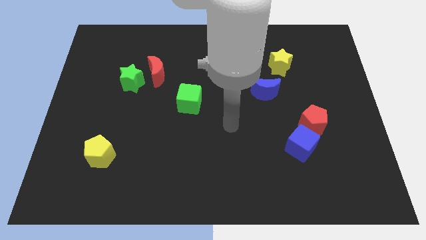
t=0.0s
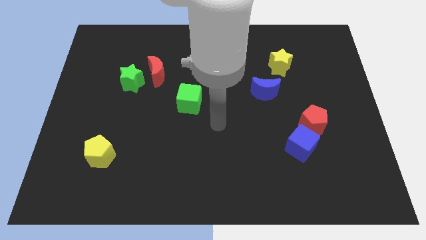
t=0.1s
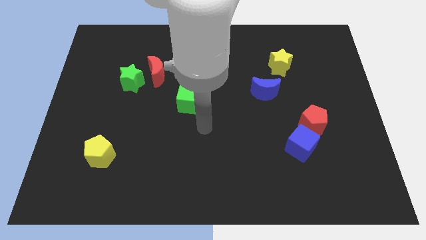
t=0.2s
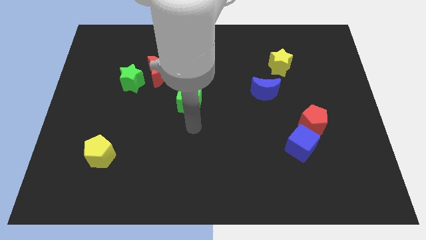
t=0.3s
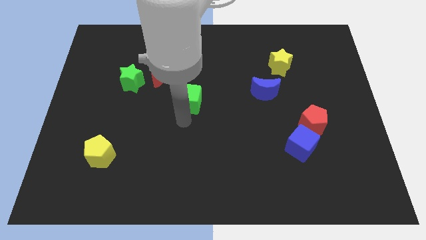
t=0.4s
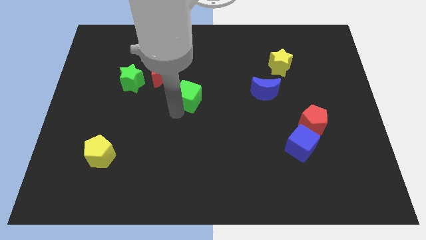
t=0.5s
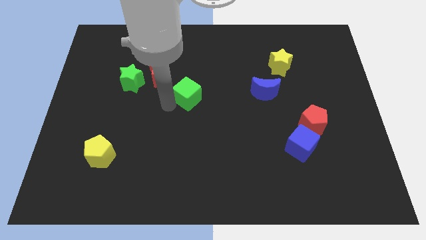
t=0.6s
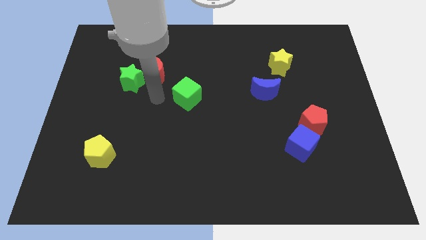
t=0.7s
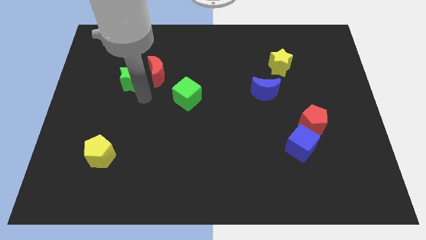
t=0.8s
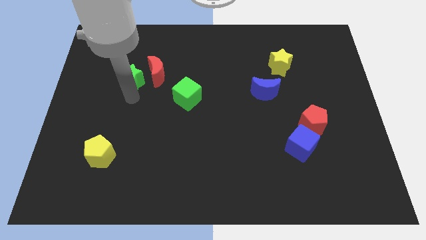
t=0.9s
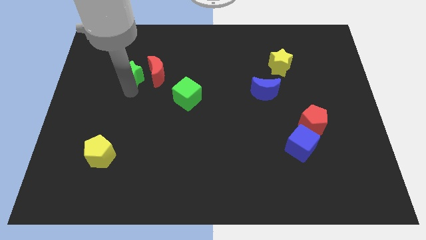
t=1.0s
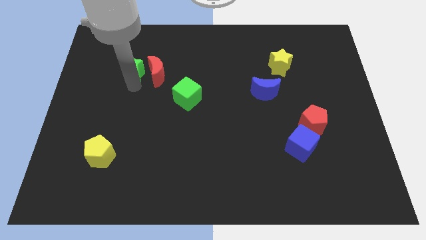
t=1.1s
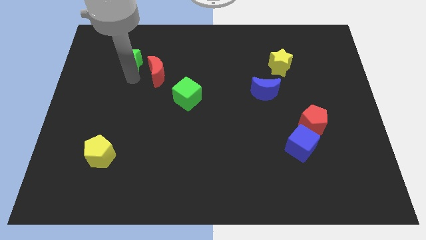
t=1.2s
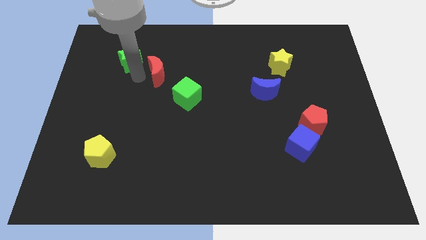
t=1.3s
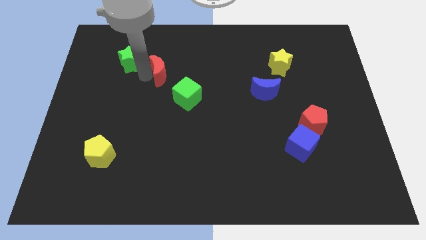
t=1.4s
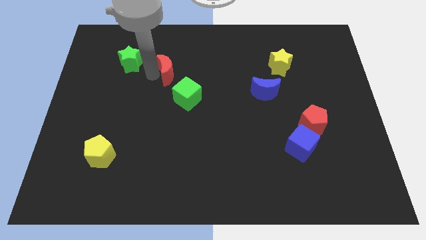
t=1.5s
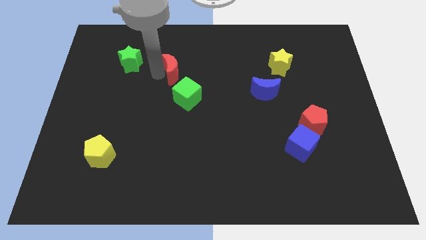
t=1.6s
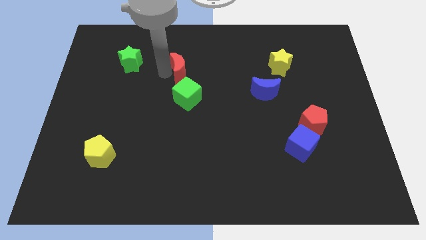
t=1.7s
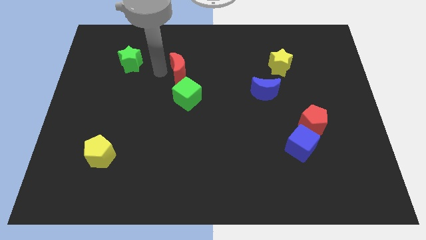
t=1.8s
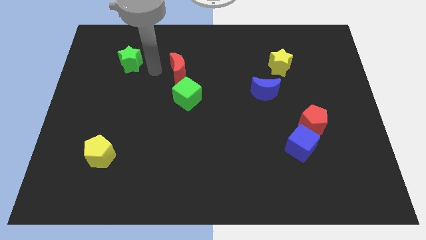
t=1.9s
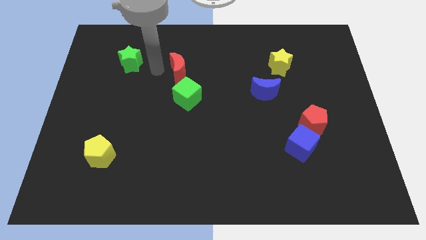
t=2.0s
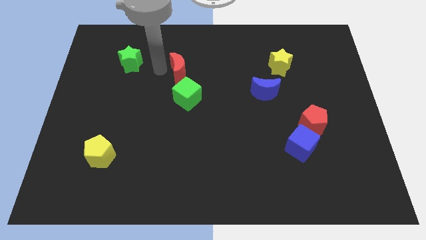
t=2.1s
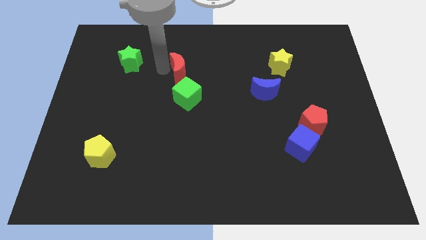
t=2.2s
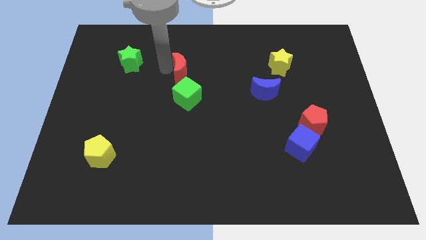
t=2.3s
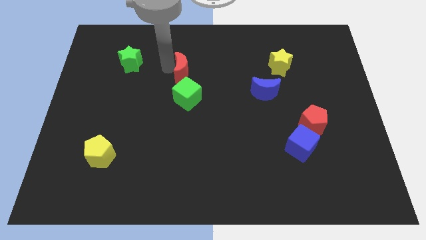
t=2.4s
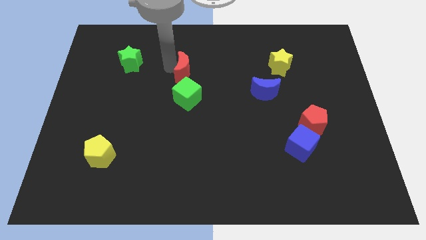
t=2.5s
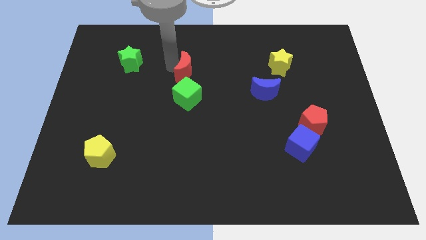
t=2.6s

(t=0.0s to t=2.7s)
slightly push the red moon to the right

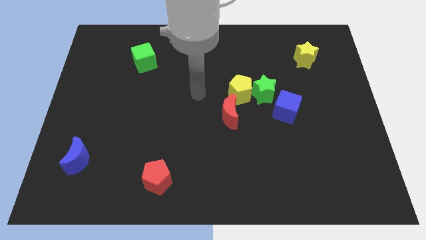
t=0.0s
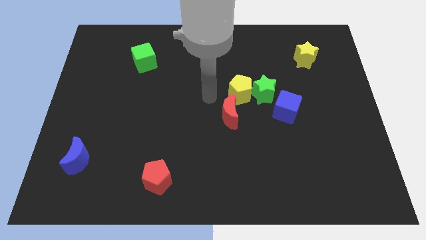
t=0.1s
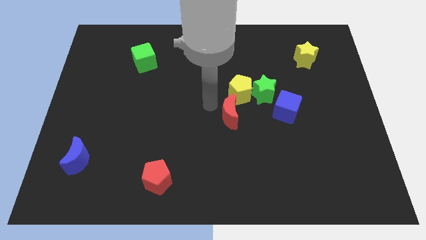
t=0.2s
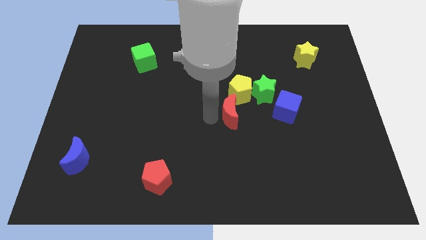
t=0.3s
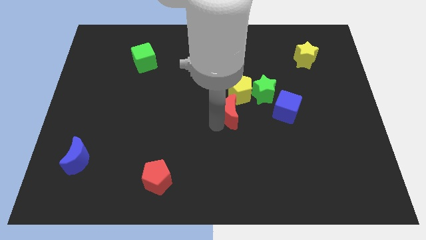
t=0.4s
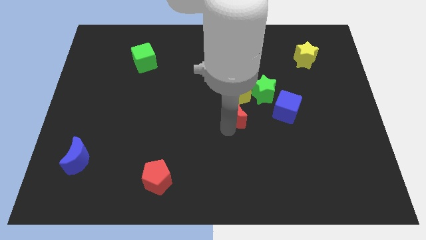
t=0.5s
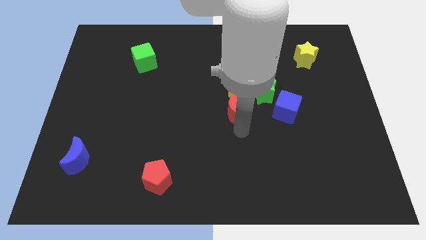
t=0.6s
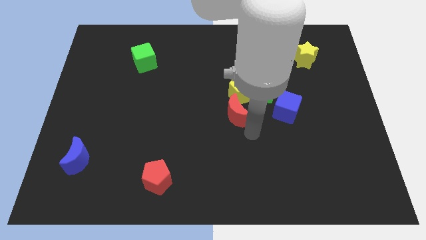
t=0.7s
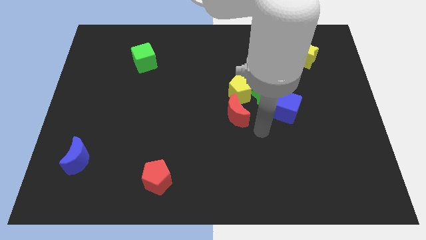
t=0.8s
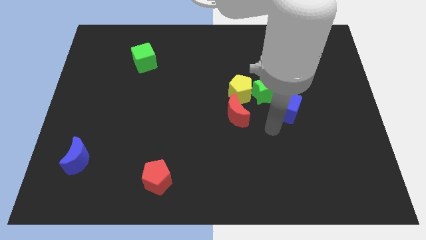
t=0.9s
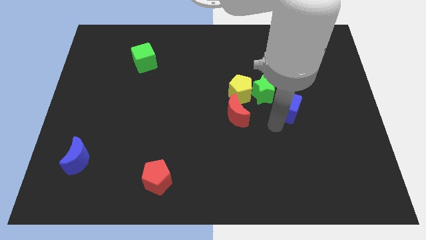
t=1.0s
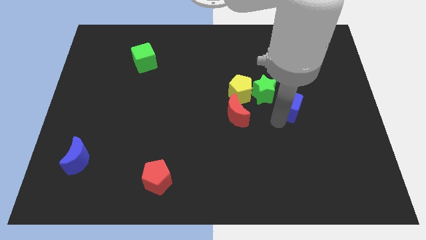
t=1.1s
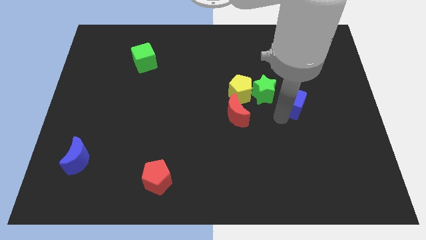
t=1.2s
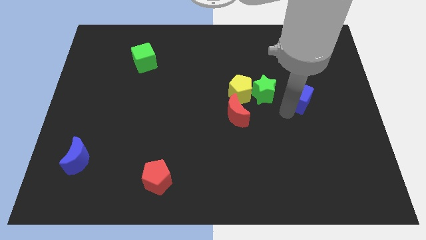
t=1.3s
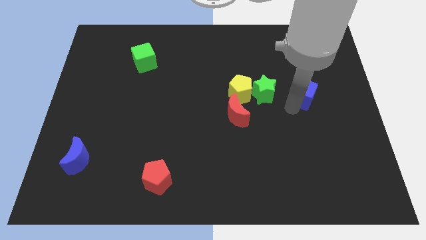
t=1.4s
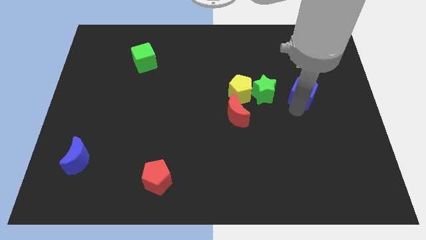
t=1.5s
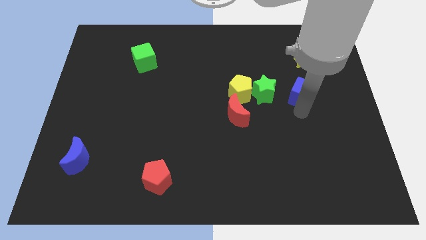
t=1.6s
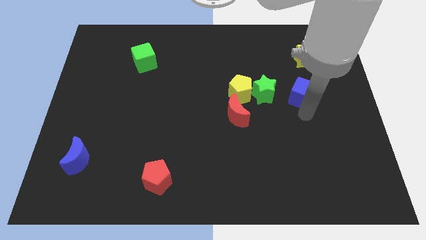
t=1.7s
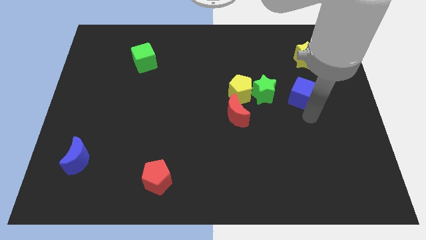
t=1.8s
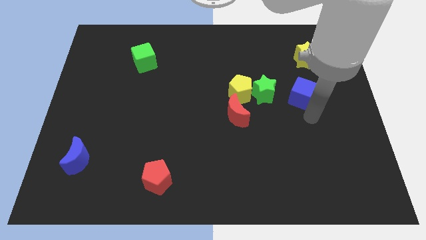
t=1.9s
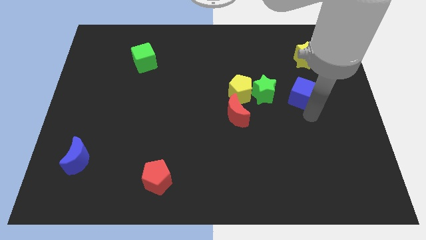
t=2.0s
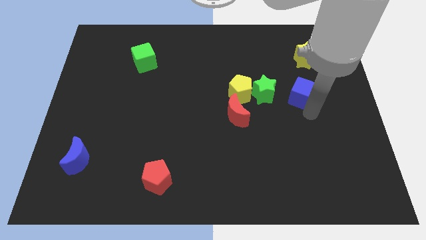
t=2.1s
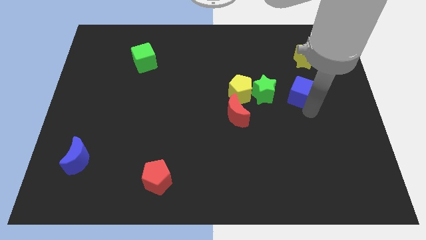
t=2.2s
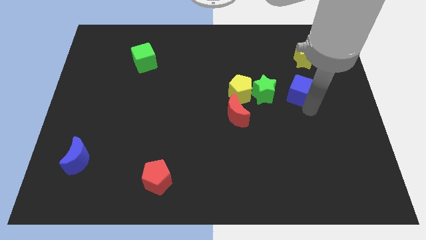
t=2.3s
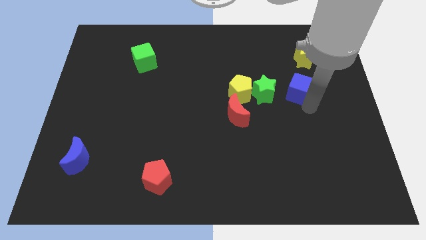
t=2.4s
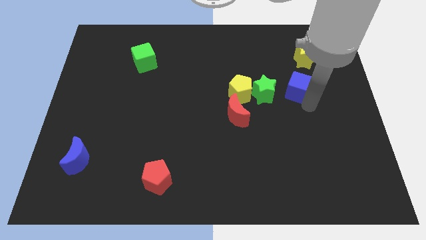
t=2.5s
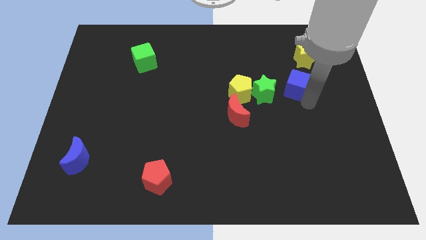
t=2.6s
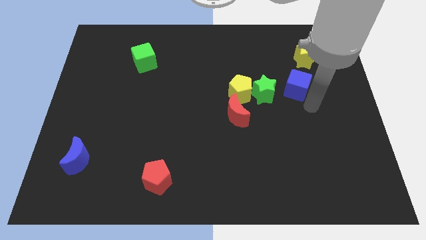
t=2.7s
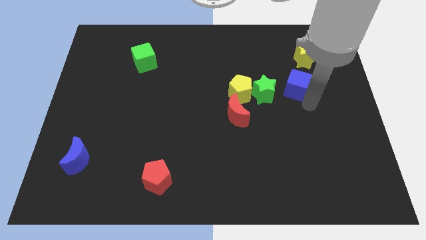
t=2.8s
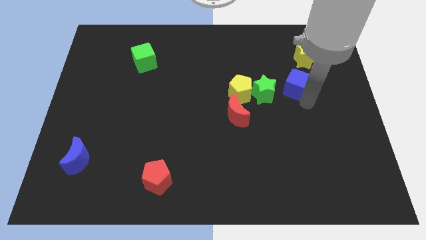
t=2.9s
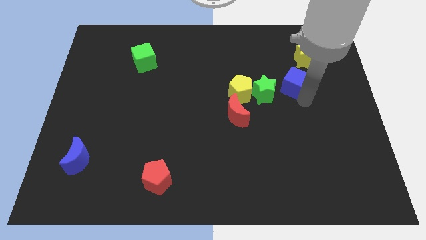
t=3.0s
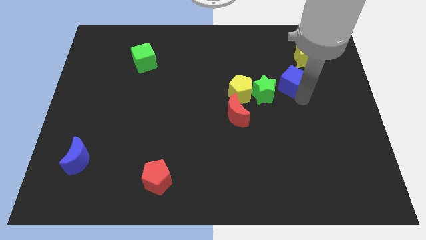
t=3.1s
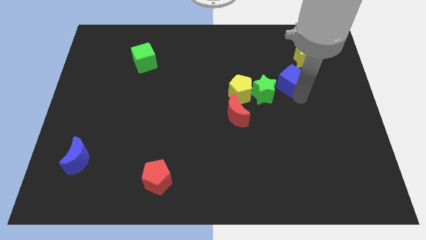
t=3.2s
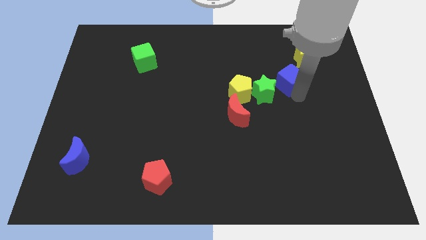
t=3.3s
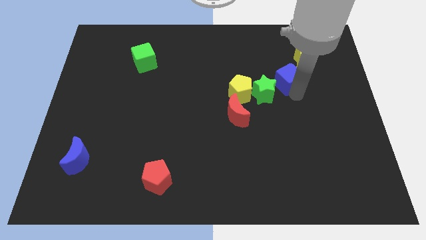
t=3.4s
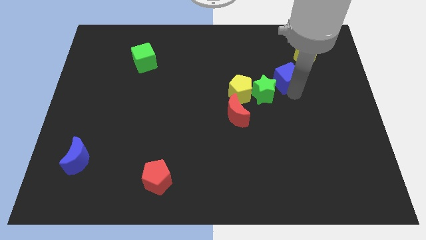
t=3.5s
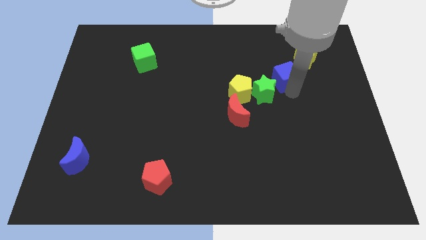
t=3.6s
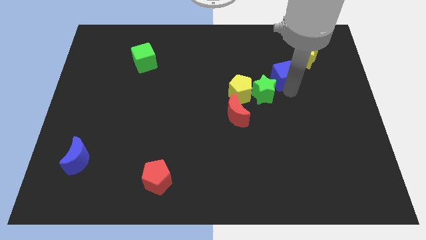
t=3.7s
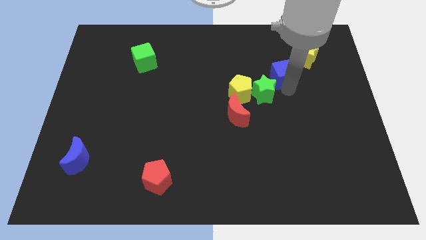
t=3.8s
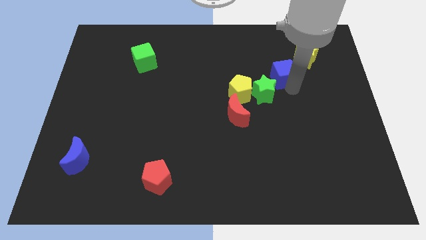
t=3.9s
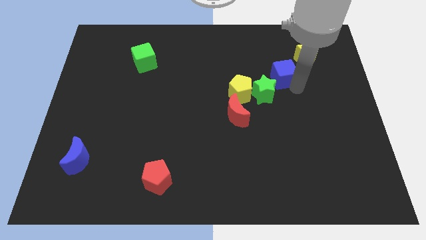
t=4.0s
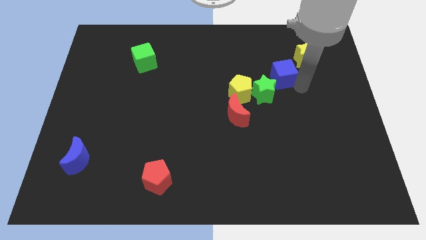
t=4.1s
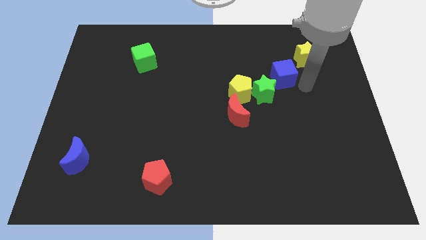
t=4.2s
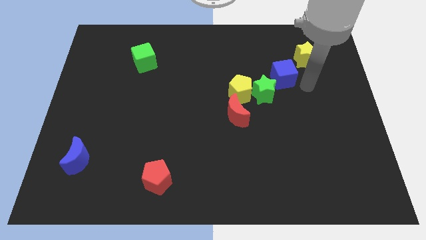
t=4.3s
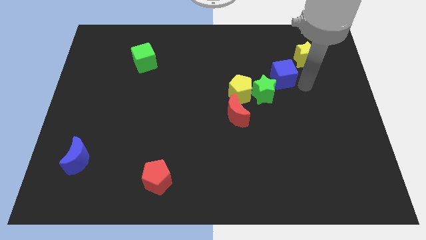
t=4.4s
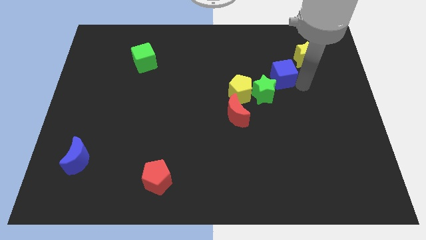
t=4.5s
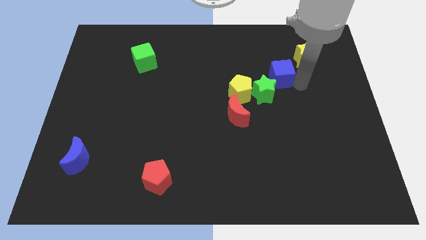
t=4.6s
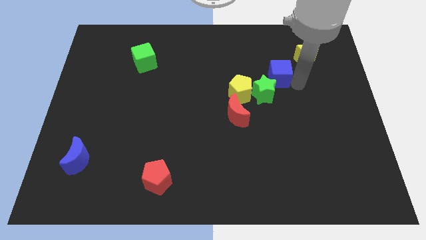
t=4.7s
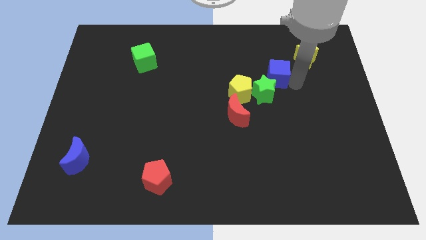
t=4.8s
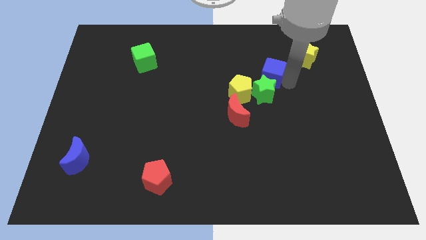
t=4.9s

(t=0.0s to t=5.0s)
slightly push the blue cube up and to the left
